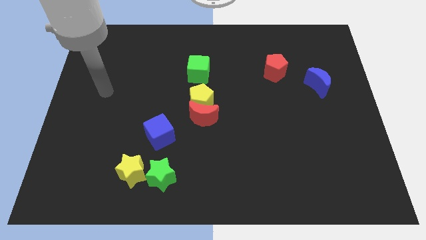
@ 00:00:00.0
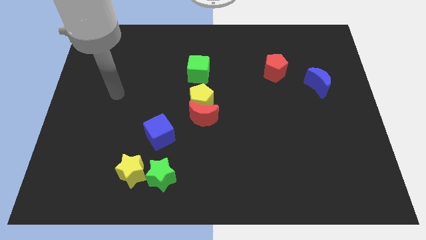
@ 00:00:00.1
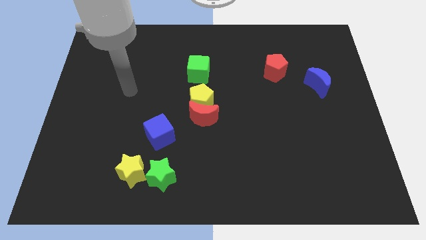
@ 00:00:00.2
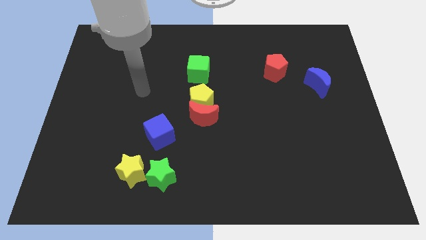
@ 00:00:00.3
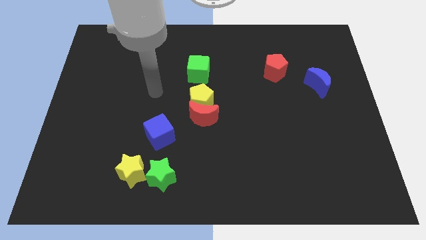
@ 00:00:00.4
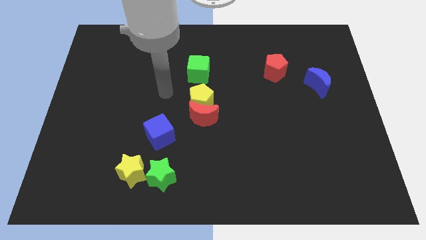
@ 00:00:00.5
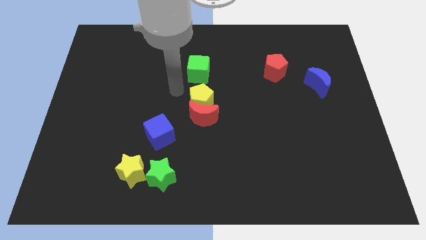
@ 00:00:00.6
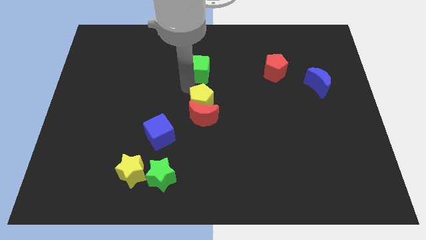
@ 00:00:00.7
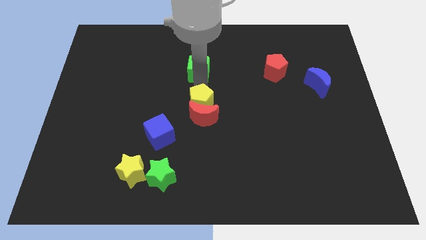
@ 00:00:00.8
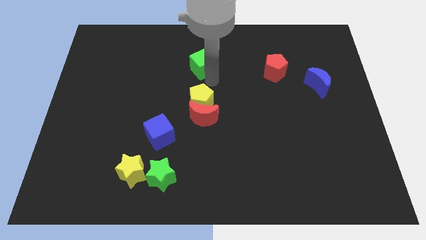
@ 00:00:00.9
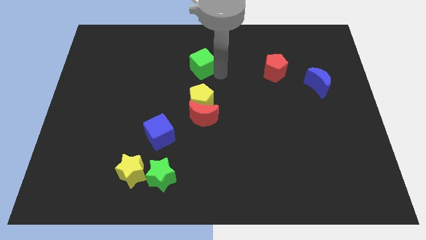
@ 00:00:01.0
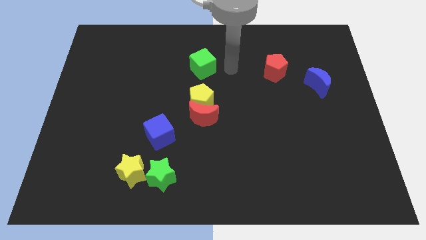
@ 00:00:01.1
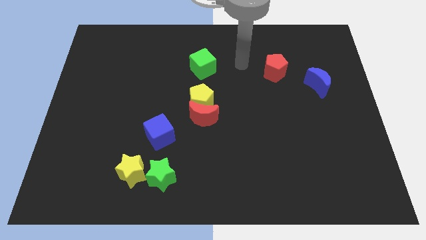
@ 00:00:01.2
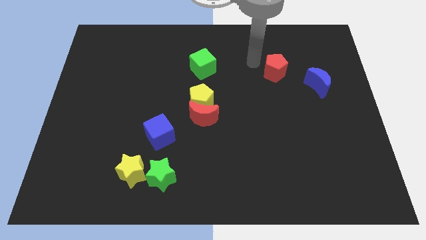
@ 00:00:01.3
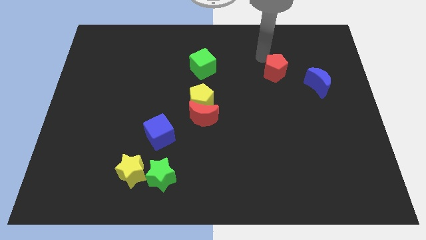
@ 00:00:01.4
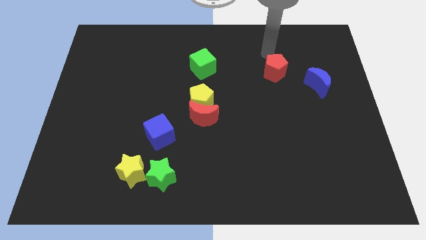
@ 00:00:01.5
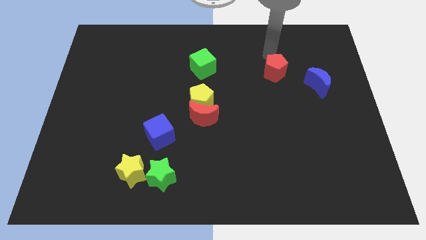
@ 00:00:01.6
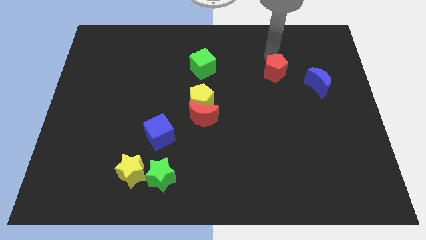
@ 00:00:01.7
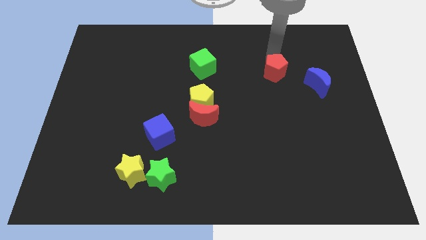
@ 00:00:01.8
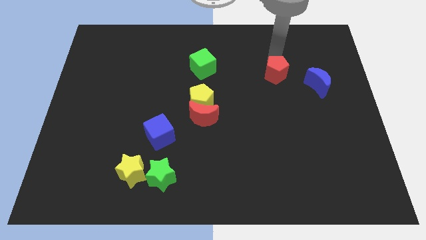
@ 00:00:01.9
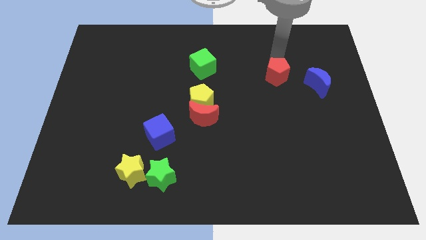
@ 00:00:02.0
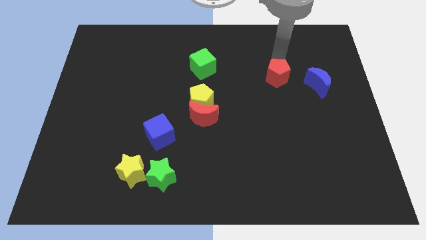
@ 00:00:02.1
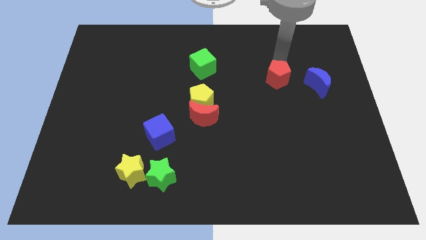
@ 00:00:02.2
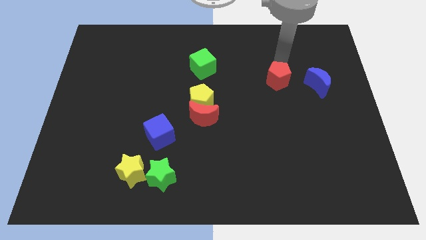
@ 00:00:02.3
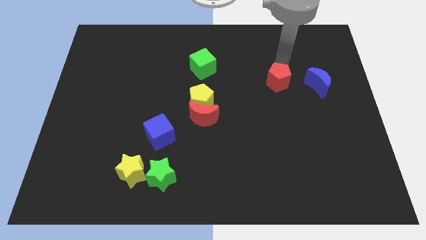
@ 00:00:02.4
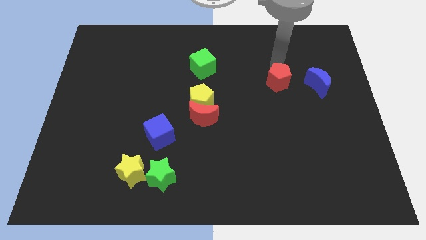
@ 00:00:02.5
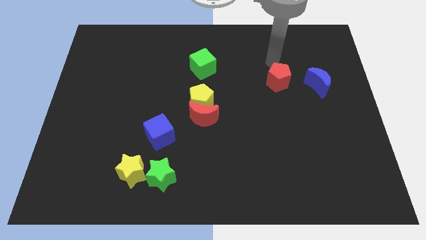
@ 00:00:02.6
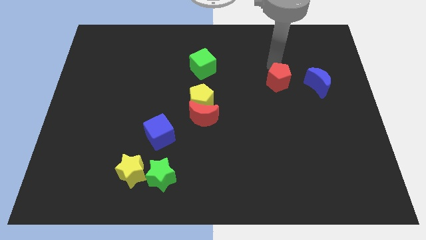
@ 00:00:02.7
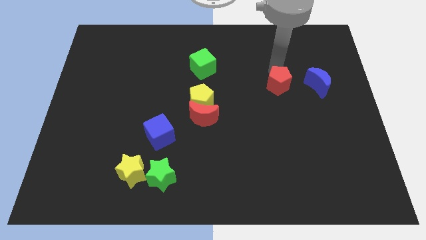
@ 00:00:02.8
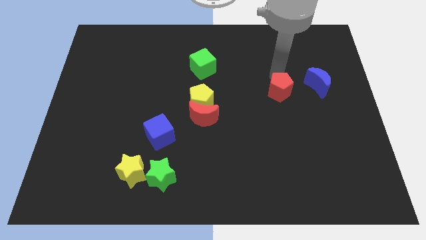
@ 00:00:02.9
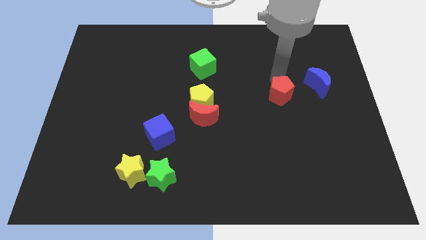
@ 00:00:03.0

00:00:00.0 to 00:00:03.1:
slide the red pentagon down a bit

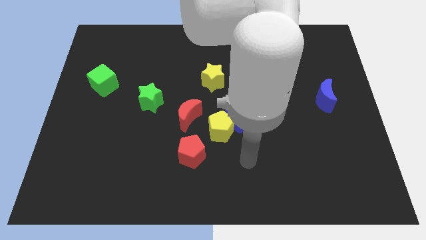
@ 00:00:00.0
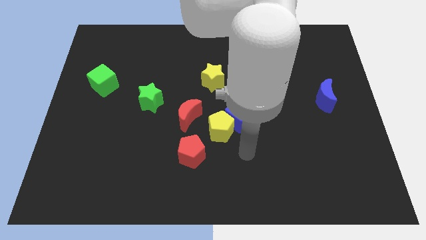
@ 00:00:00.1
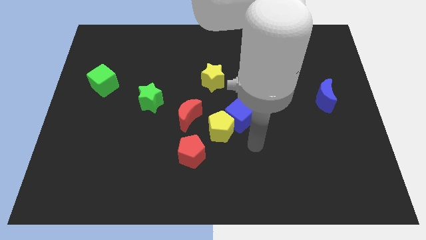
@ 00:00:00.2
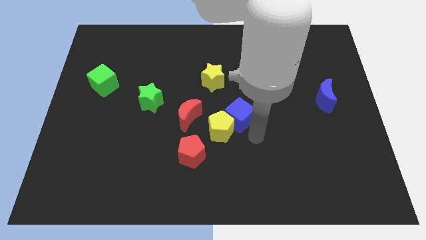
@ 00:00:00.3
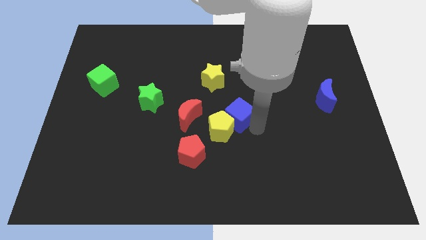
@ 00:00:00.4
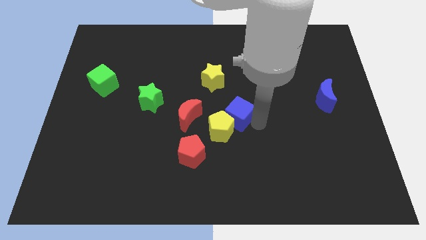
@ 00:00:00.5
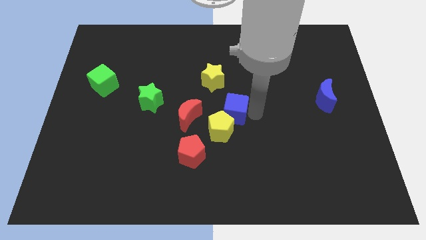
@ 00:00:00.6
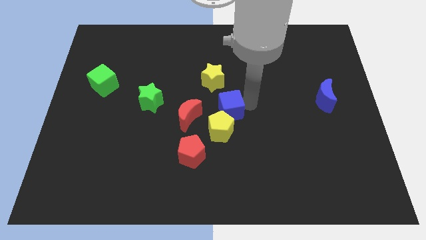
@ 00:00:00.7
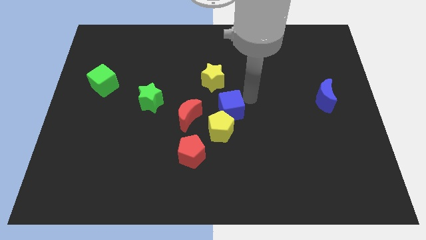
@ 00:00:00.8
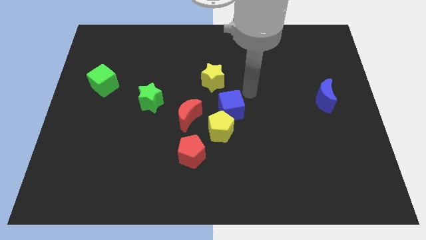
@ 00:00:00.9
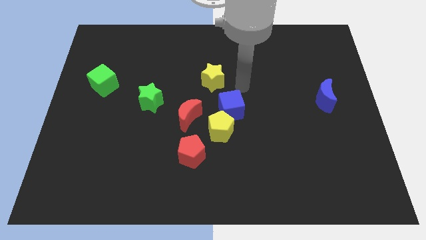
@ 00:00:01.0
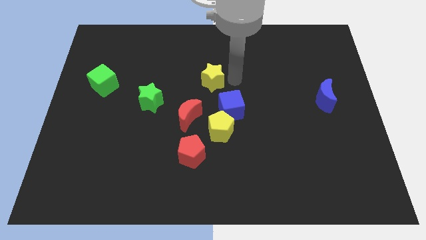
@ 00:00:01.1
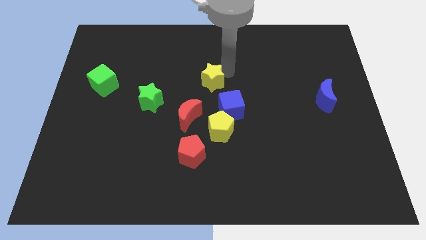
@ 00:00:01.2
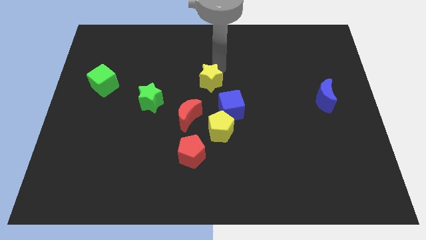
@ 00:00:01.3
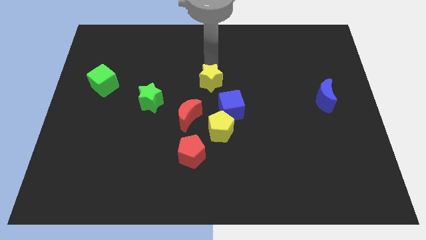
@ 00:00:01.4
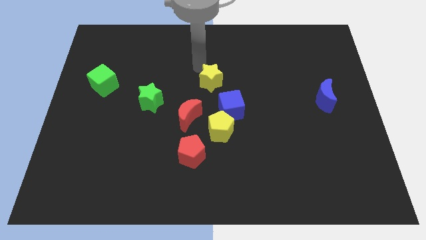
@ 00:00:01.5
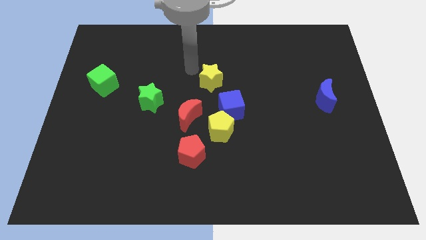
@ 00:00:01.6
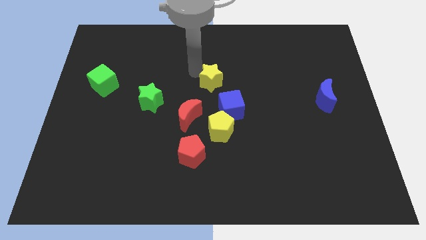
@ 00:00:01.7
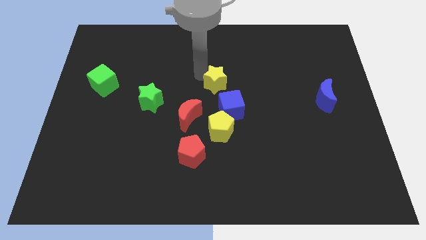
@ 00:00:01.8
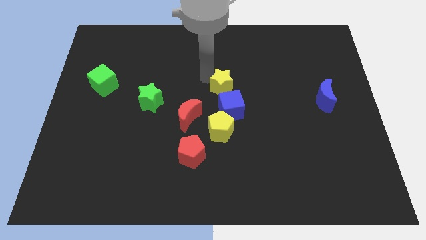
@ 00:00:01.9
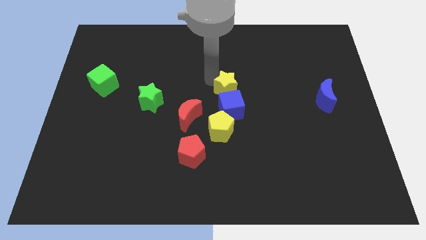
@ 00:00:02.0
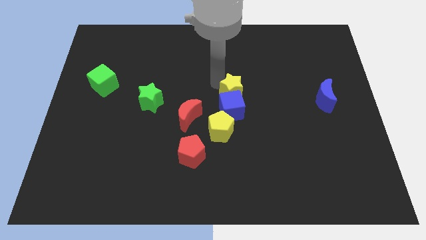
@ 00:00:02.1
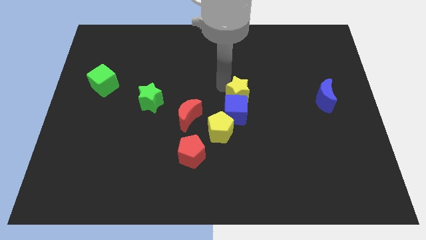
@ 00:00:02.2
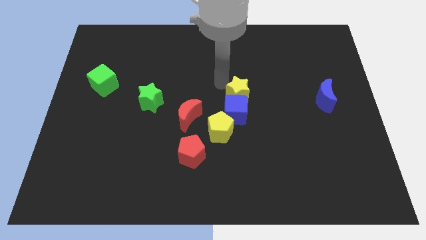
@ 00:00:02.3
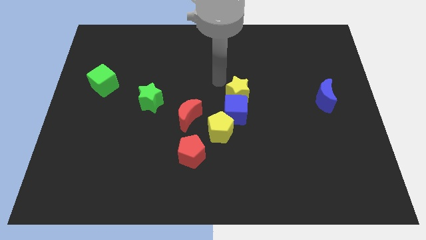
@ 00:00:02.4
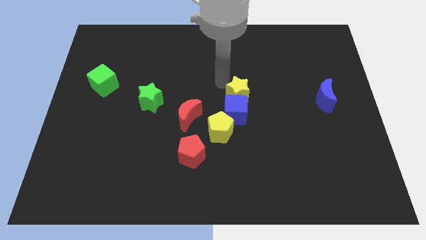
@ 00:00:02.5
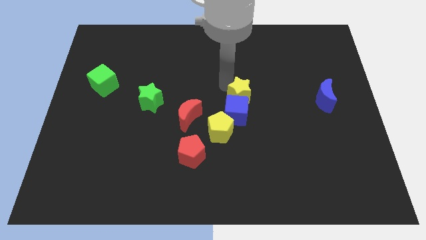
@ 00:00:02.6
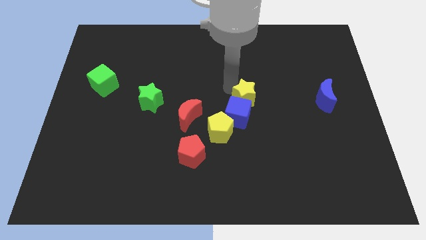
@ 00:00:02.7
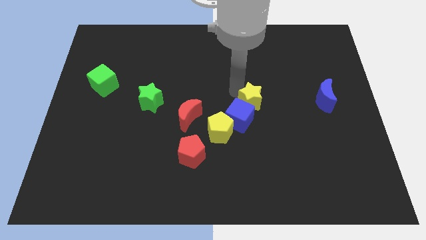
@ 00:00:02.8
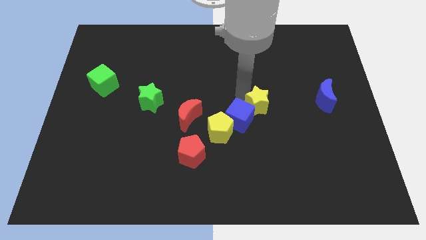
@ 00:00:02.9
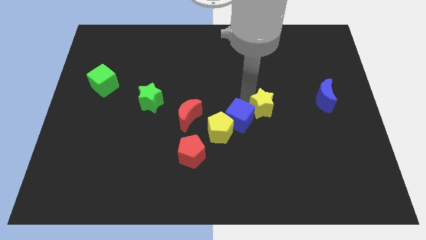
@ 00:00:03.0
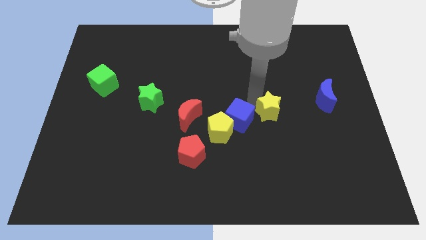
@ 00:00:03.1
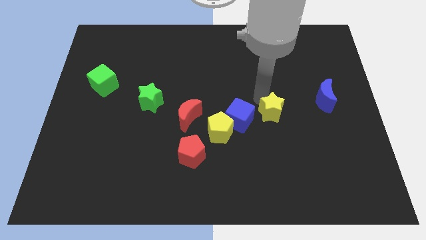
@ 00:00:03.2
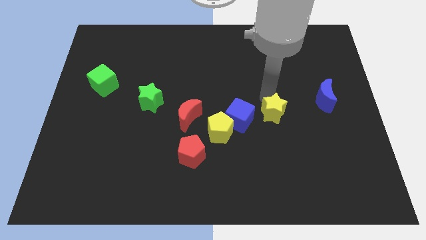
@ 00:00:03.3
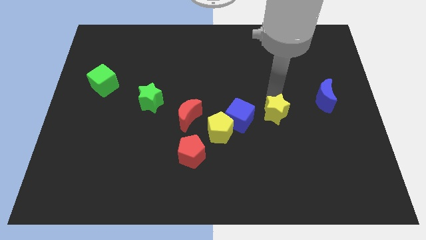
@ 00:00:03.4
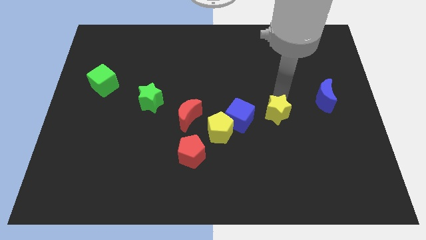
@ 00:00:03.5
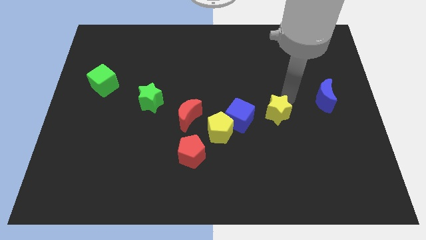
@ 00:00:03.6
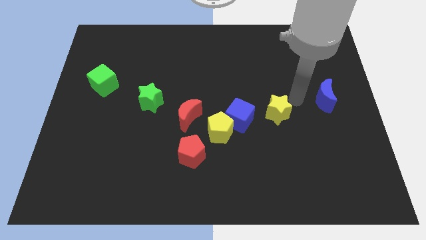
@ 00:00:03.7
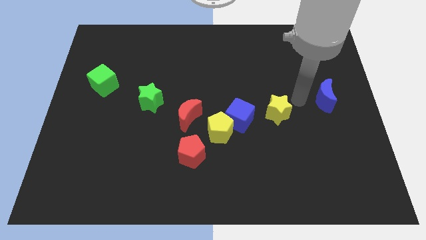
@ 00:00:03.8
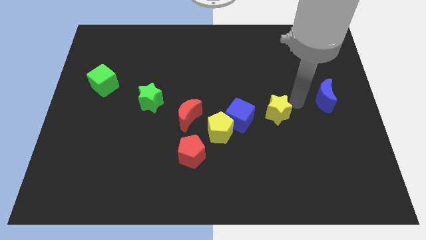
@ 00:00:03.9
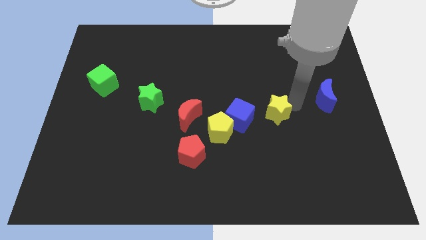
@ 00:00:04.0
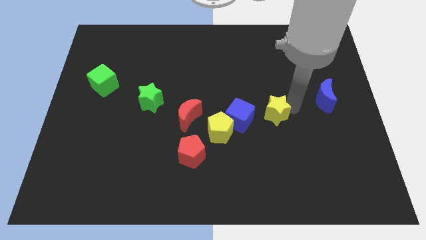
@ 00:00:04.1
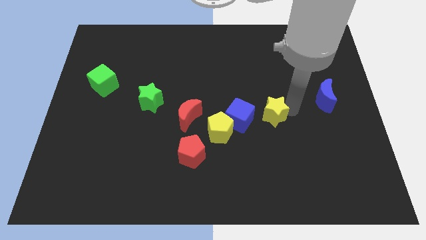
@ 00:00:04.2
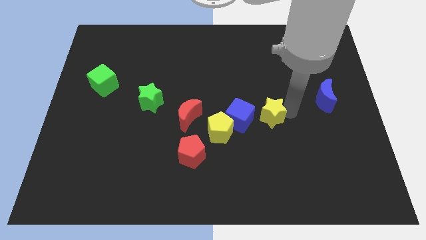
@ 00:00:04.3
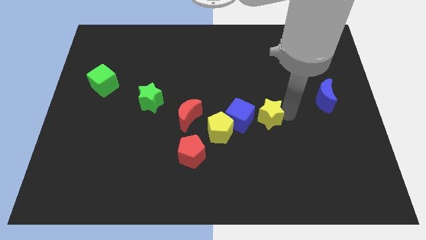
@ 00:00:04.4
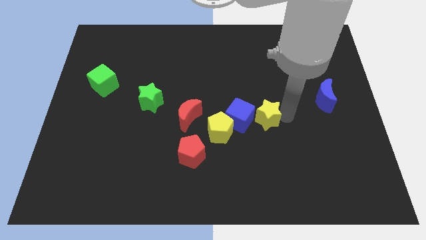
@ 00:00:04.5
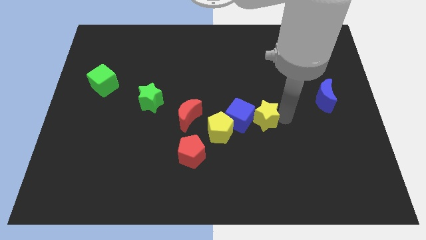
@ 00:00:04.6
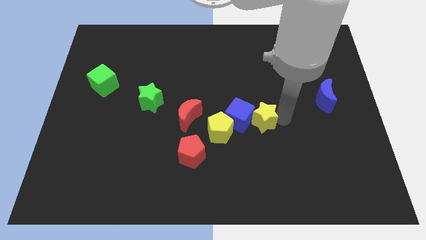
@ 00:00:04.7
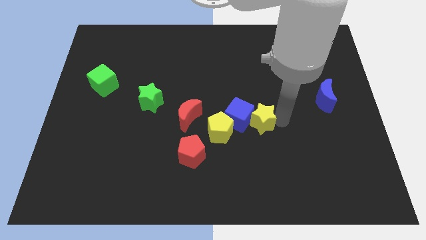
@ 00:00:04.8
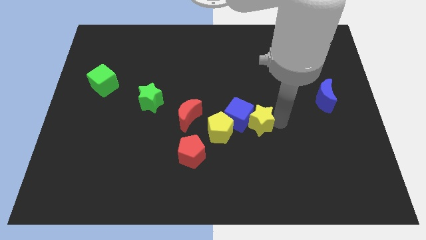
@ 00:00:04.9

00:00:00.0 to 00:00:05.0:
slightly slide the yellow star downwards
